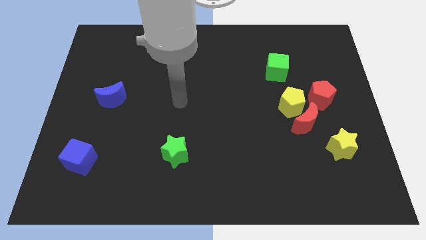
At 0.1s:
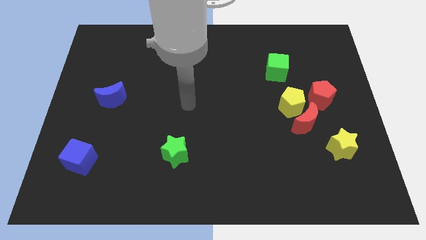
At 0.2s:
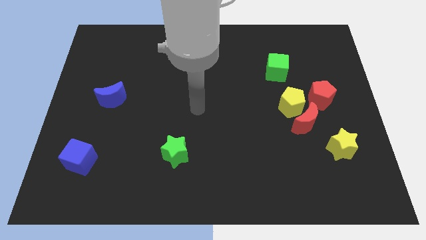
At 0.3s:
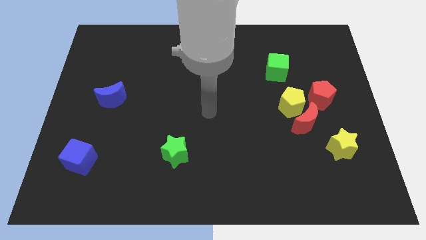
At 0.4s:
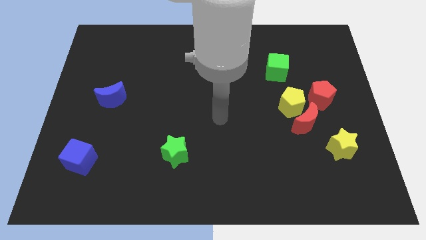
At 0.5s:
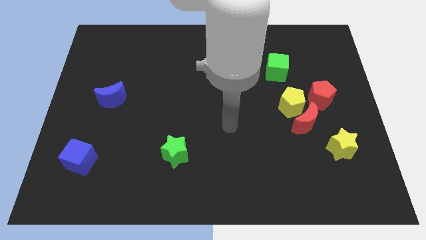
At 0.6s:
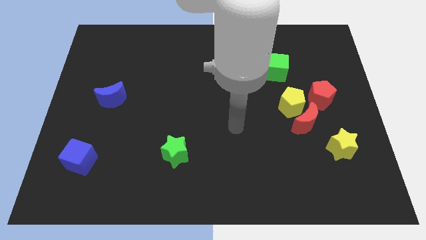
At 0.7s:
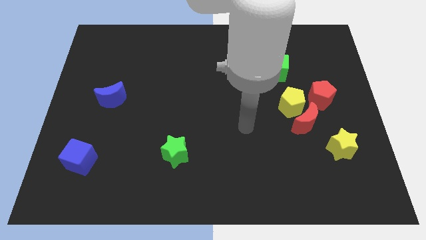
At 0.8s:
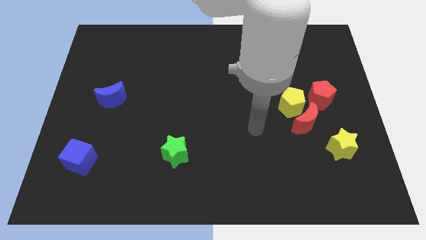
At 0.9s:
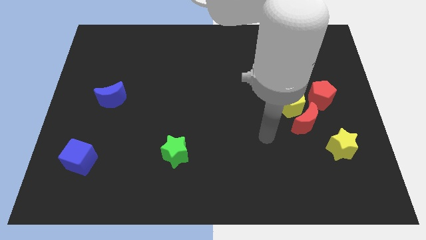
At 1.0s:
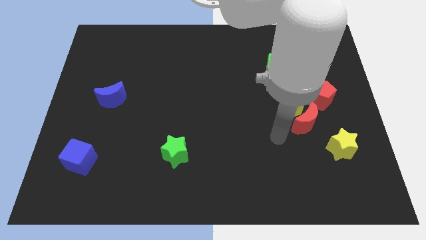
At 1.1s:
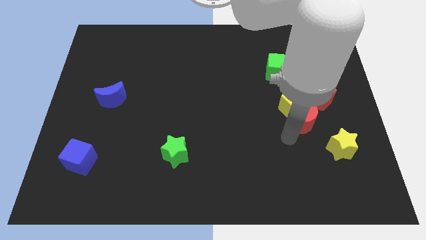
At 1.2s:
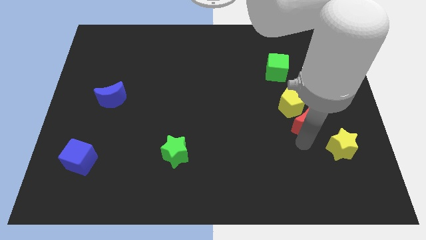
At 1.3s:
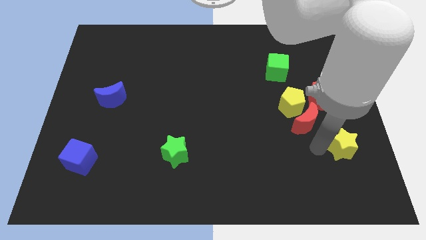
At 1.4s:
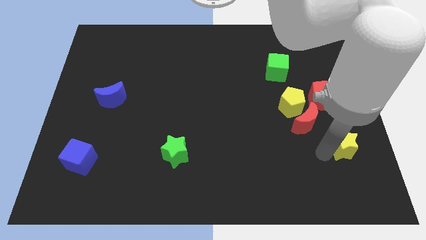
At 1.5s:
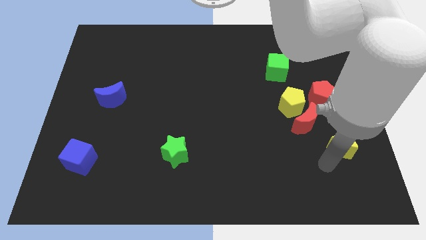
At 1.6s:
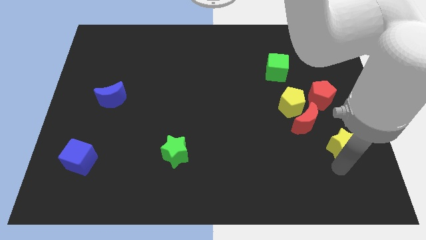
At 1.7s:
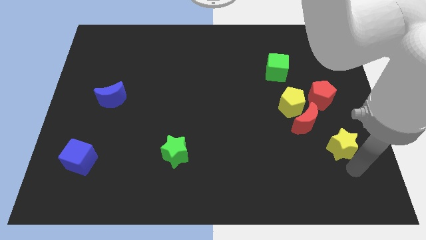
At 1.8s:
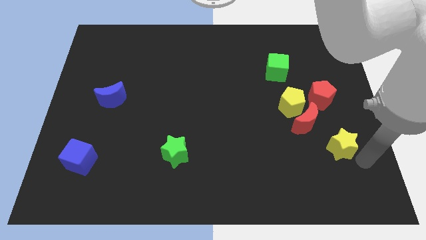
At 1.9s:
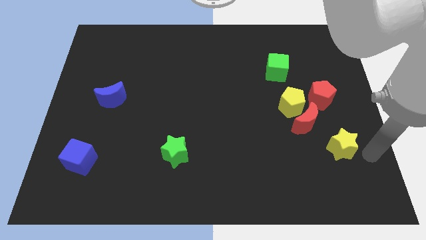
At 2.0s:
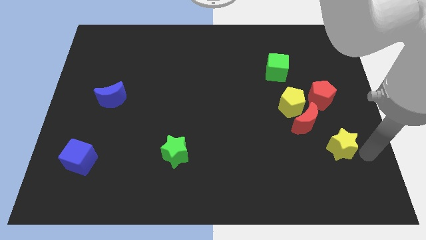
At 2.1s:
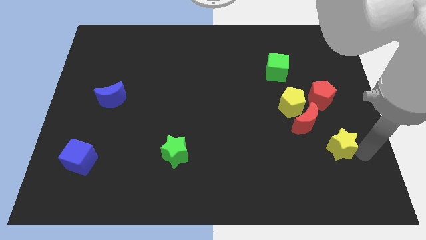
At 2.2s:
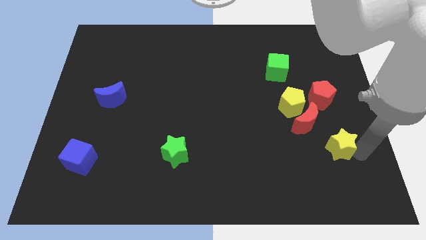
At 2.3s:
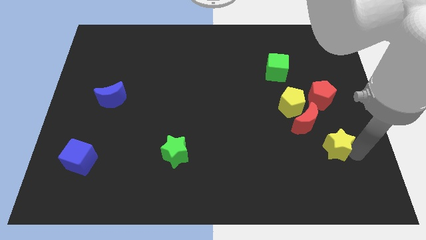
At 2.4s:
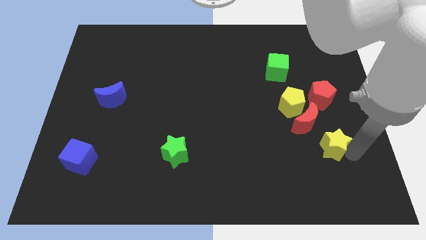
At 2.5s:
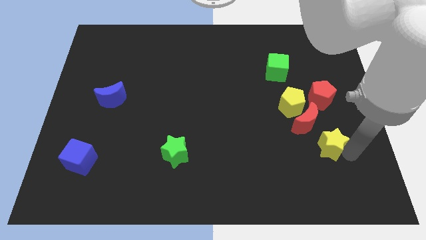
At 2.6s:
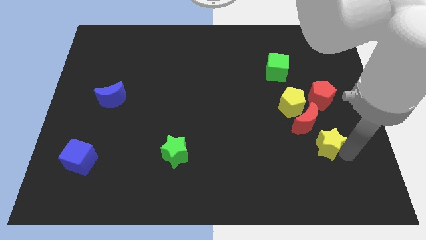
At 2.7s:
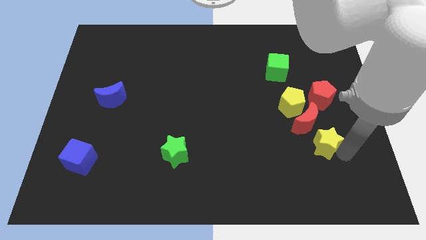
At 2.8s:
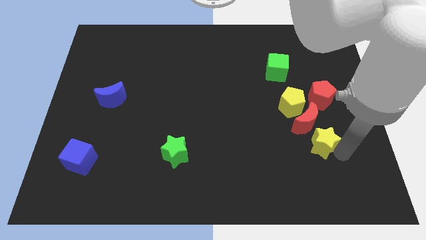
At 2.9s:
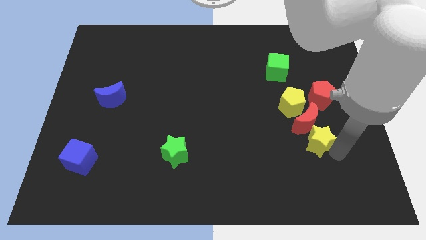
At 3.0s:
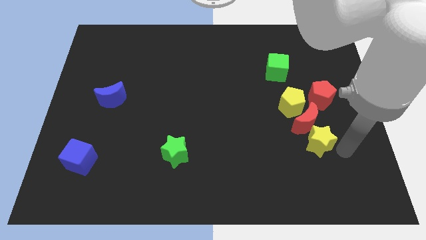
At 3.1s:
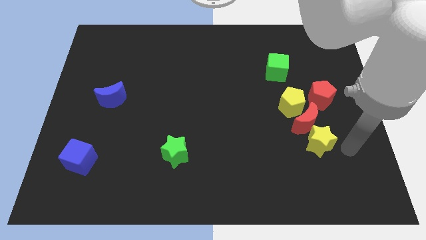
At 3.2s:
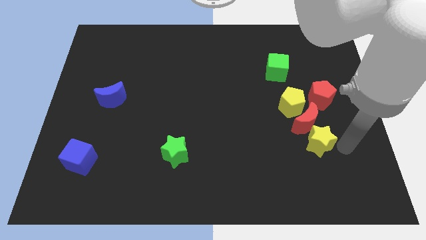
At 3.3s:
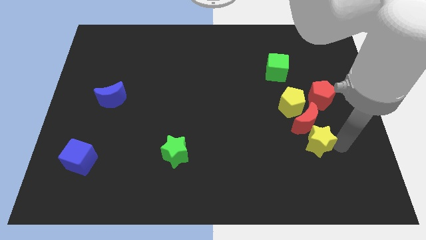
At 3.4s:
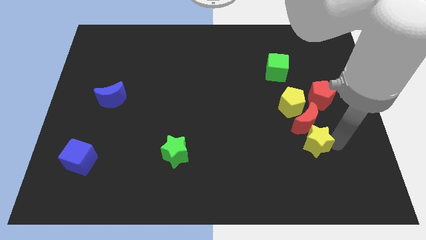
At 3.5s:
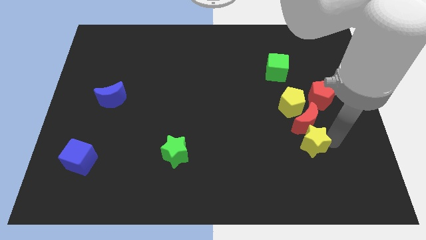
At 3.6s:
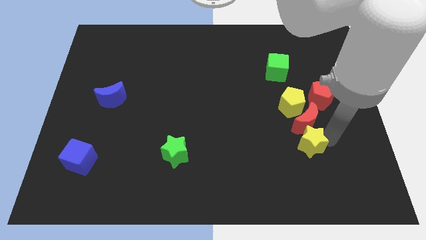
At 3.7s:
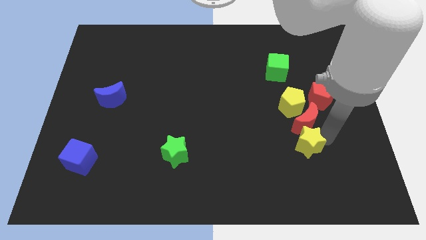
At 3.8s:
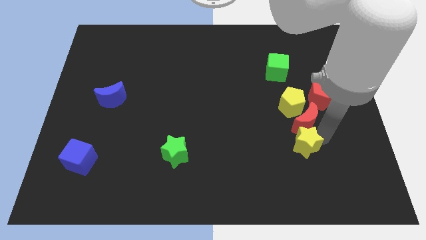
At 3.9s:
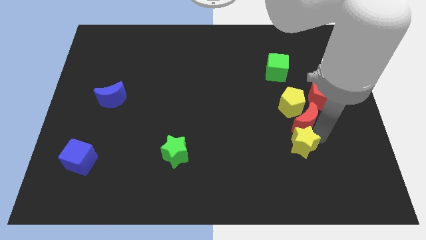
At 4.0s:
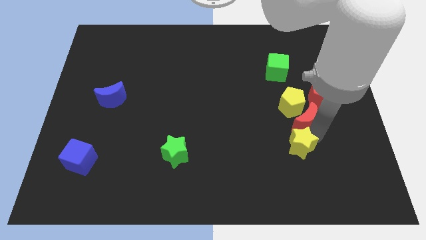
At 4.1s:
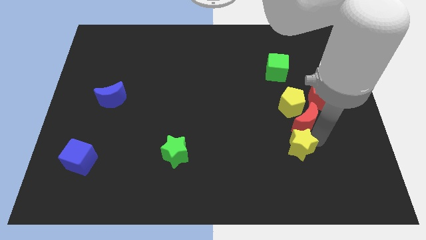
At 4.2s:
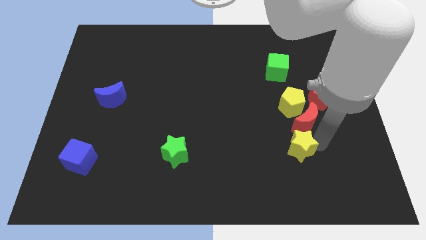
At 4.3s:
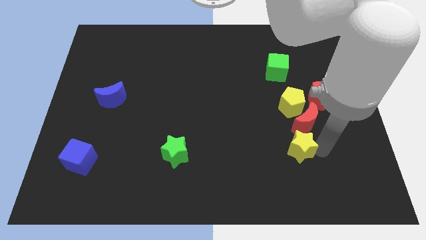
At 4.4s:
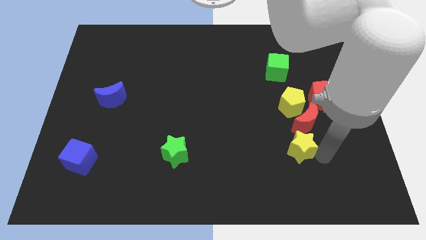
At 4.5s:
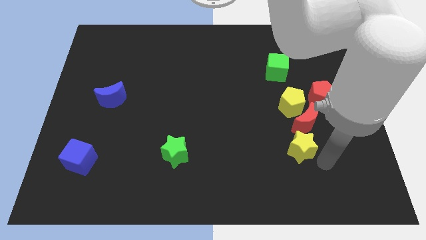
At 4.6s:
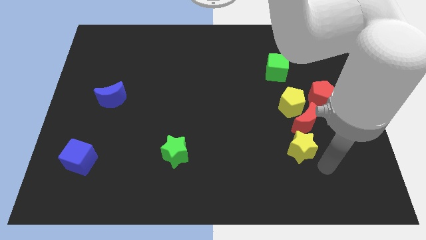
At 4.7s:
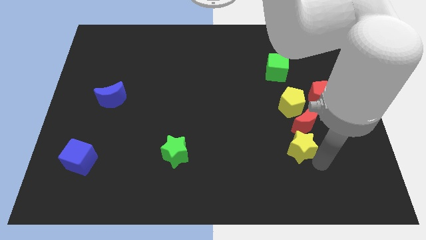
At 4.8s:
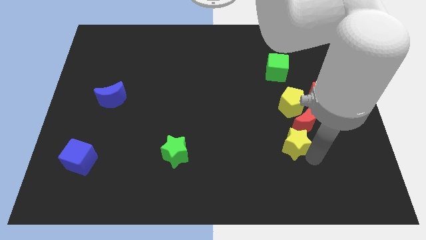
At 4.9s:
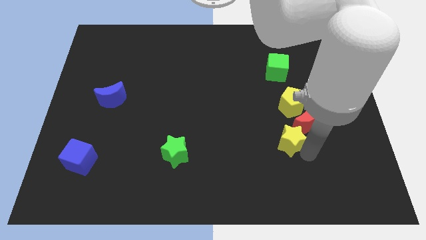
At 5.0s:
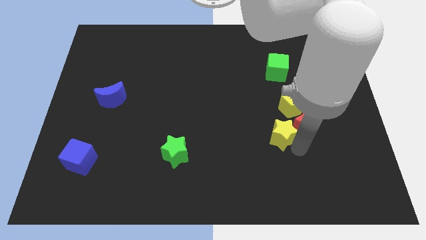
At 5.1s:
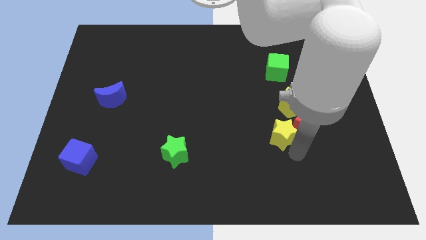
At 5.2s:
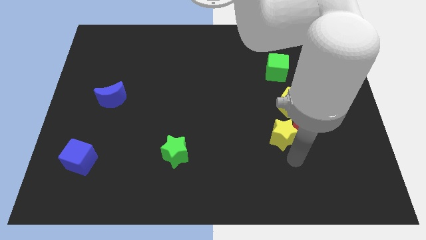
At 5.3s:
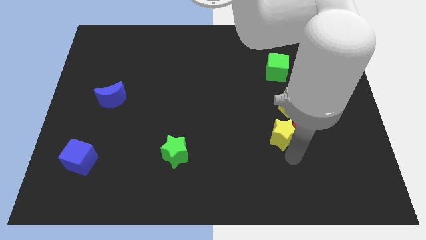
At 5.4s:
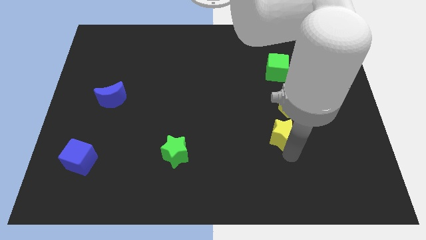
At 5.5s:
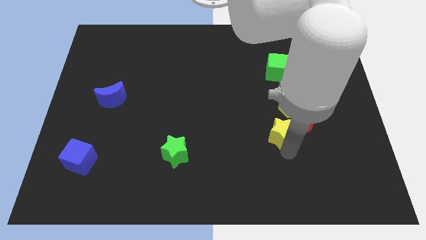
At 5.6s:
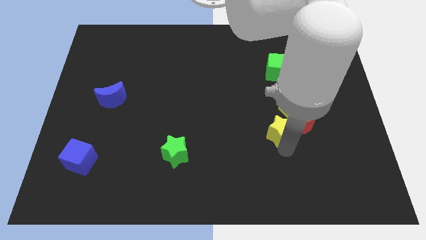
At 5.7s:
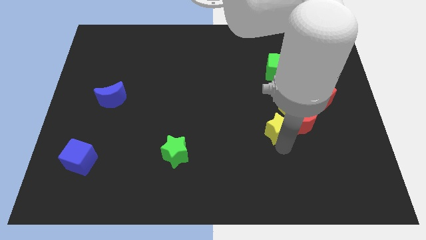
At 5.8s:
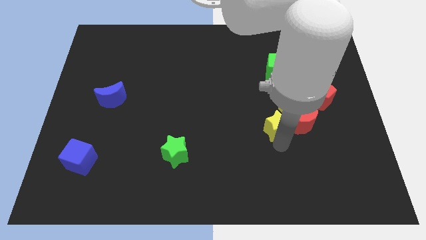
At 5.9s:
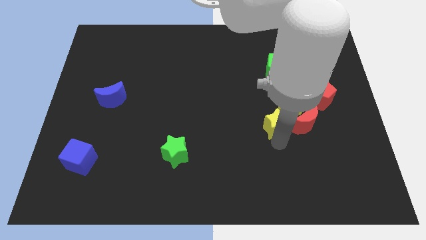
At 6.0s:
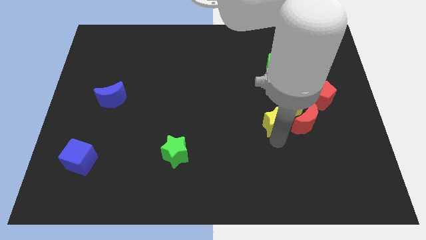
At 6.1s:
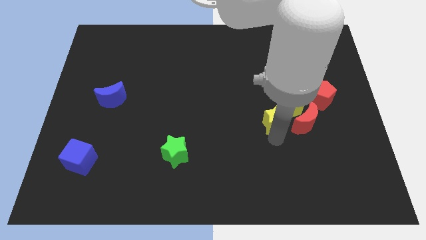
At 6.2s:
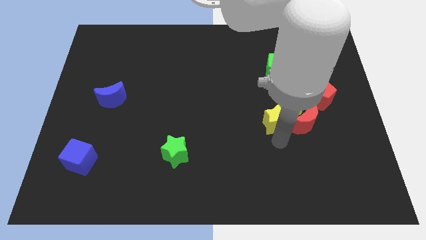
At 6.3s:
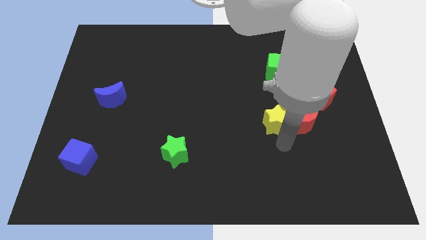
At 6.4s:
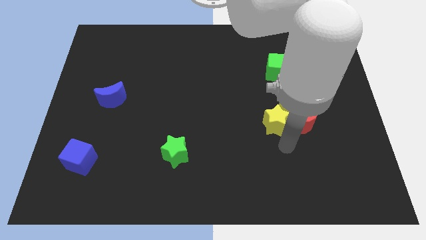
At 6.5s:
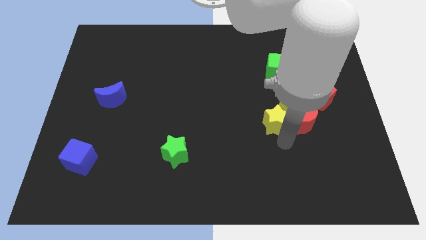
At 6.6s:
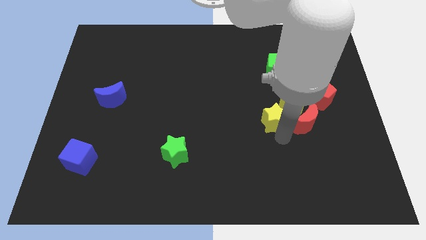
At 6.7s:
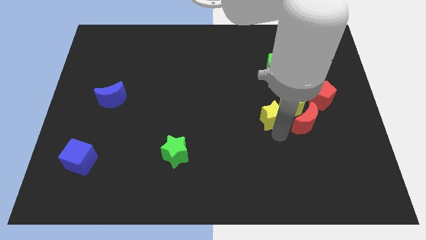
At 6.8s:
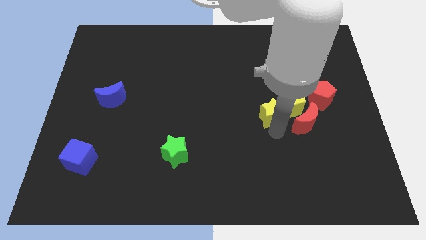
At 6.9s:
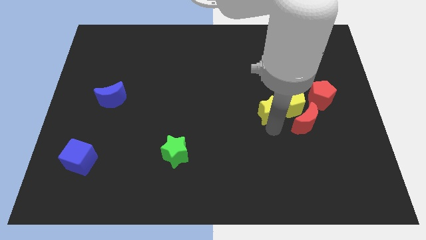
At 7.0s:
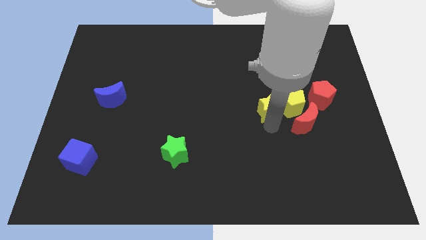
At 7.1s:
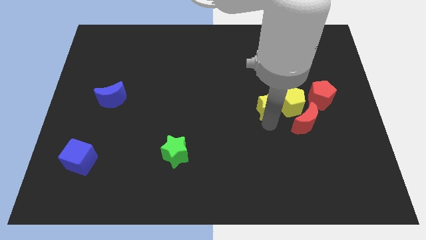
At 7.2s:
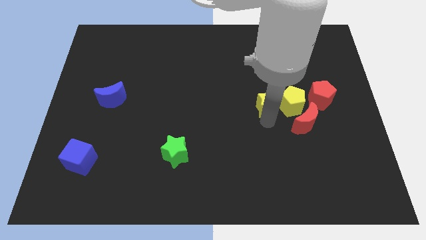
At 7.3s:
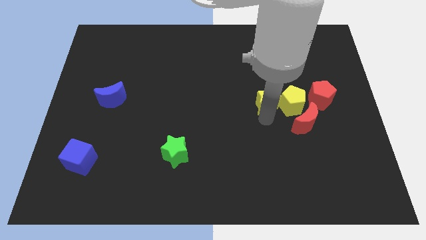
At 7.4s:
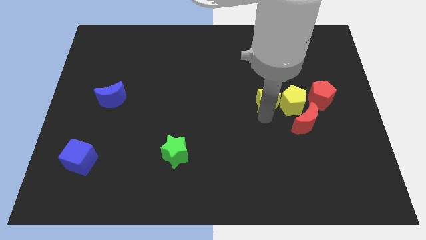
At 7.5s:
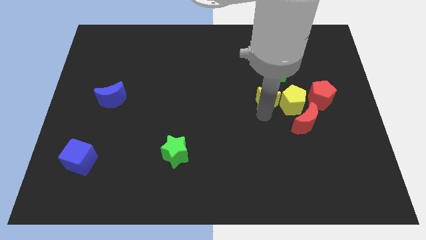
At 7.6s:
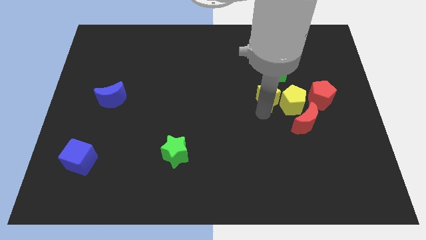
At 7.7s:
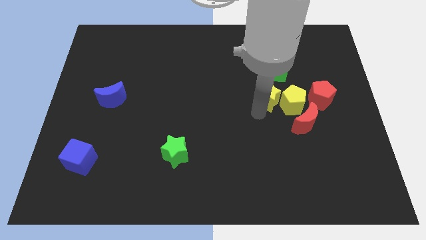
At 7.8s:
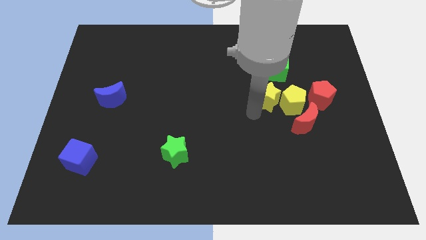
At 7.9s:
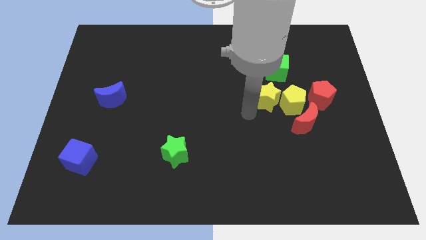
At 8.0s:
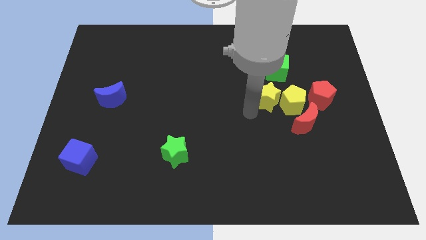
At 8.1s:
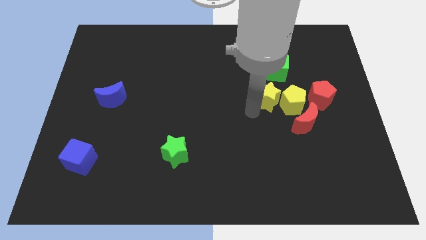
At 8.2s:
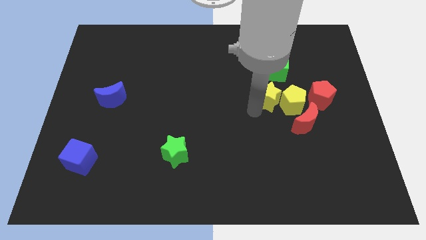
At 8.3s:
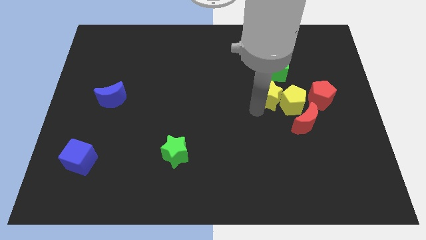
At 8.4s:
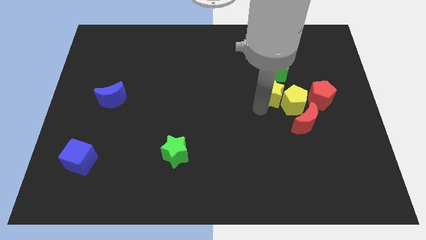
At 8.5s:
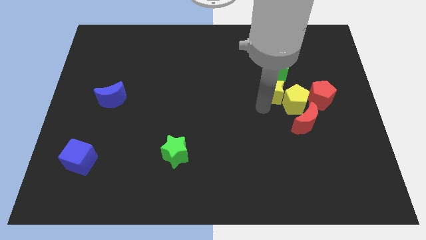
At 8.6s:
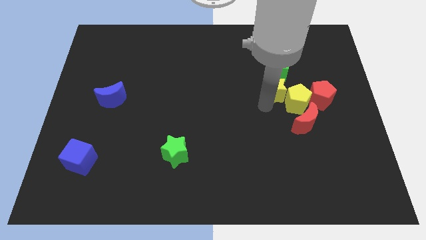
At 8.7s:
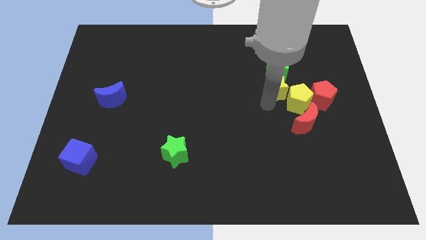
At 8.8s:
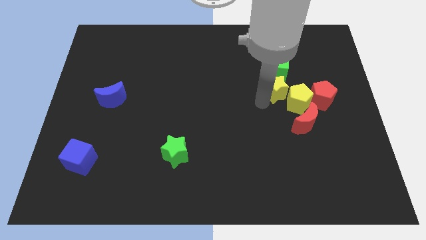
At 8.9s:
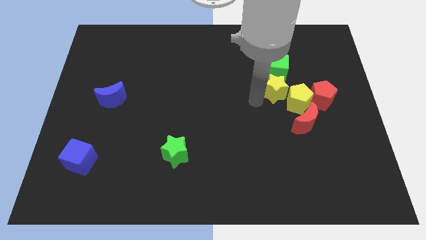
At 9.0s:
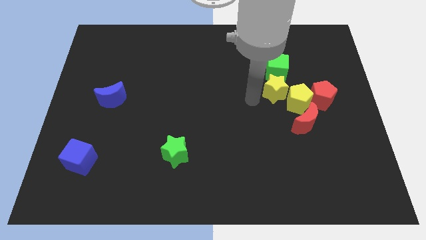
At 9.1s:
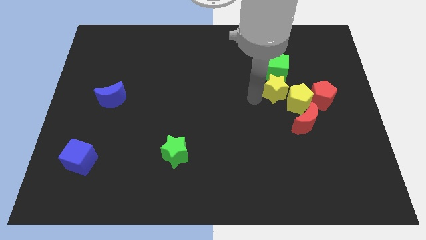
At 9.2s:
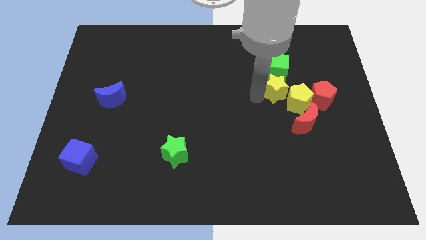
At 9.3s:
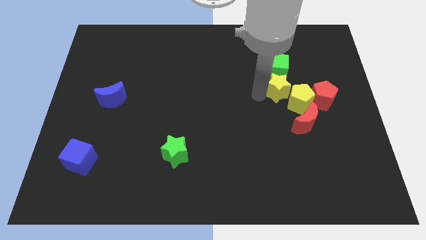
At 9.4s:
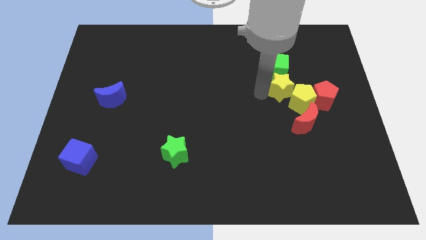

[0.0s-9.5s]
slide the yellow star to the top left side of the red pentagon
